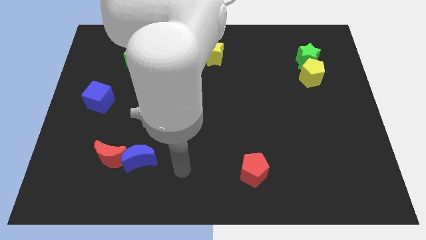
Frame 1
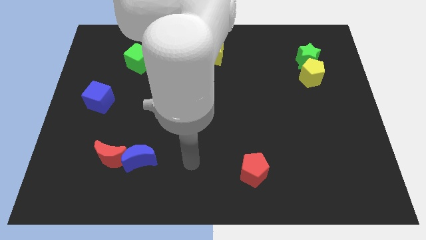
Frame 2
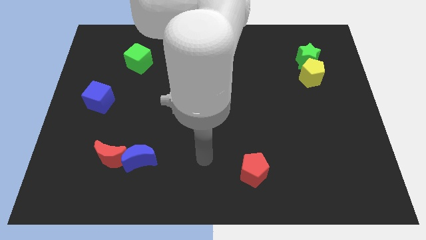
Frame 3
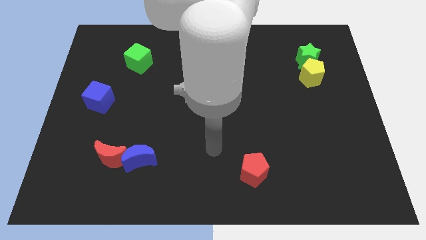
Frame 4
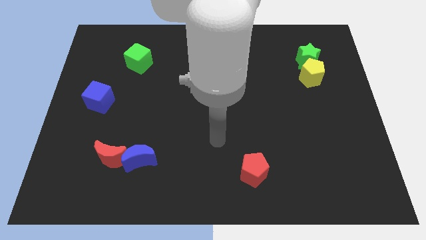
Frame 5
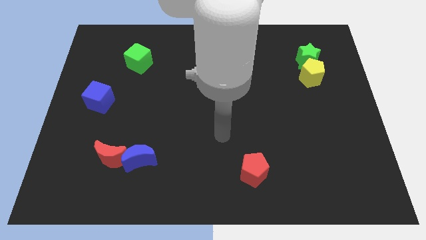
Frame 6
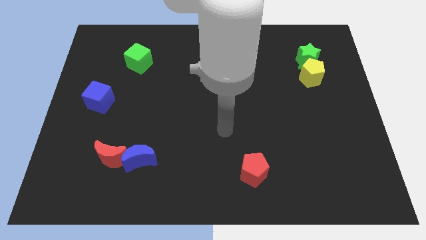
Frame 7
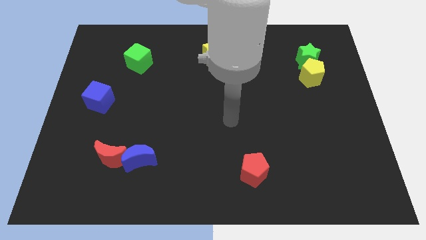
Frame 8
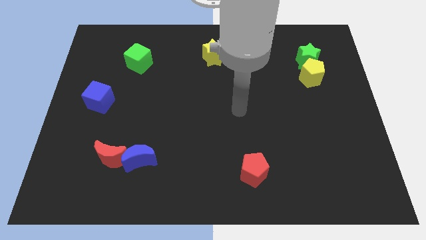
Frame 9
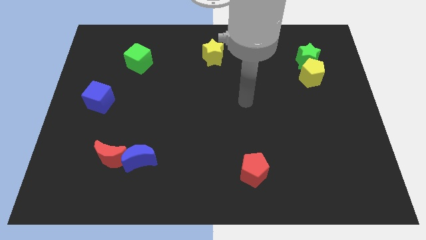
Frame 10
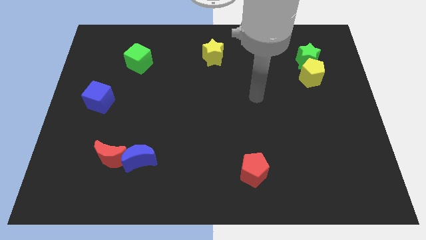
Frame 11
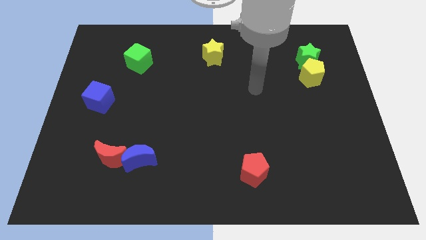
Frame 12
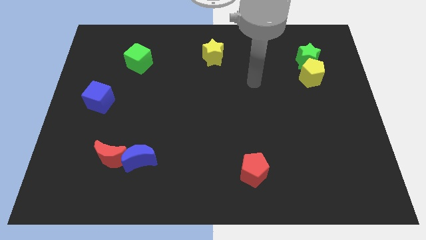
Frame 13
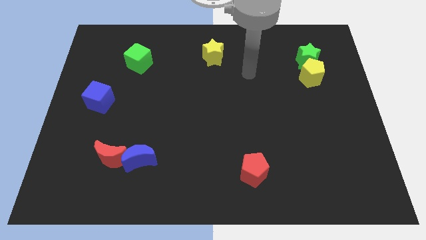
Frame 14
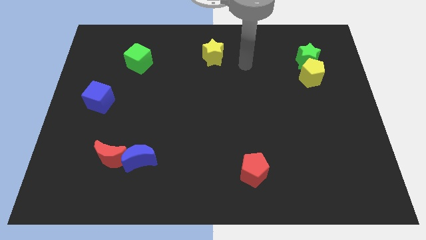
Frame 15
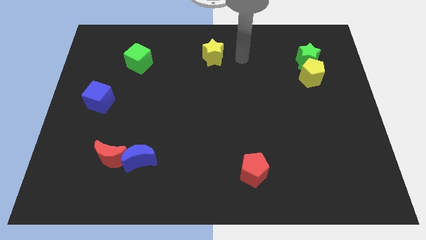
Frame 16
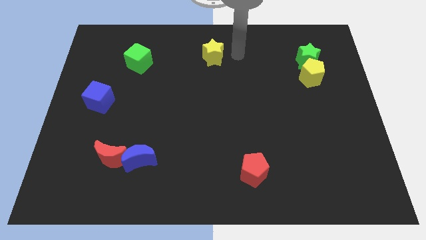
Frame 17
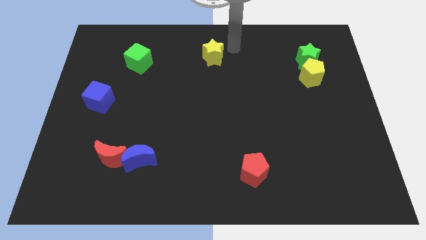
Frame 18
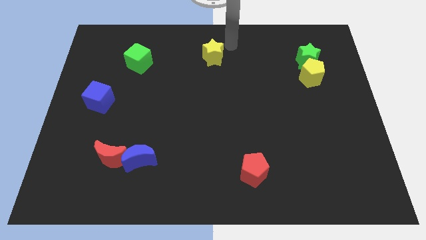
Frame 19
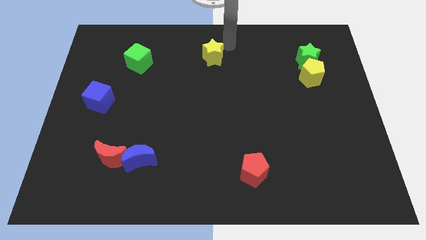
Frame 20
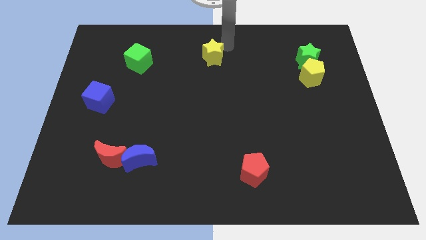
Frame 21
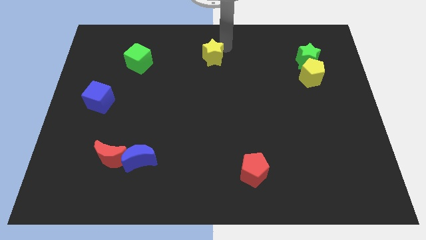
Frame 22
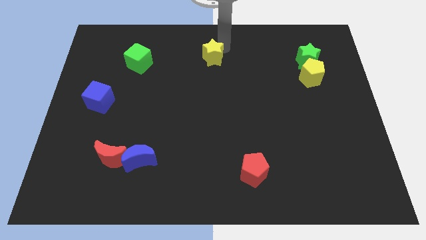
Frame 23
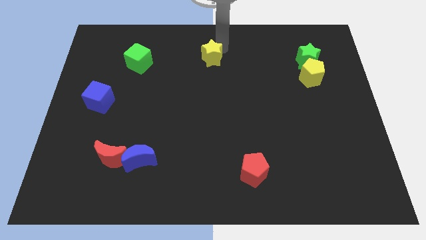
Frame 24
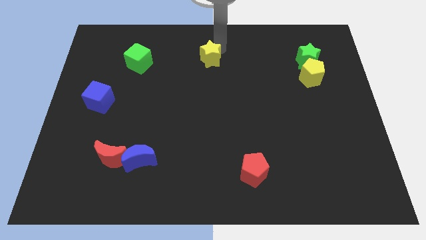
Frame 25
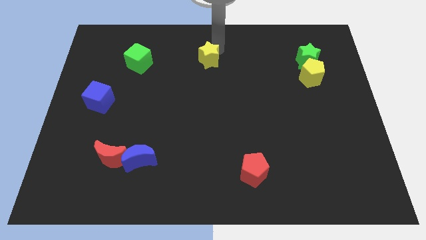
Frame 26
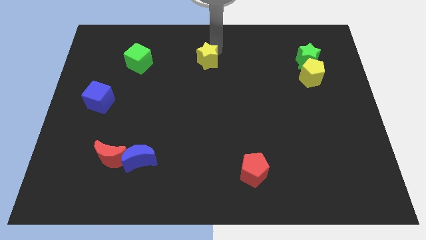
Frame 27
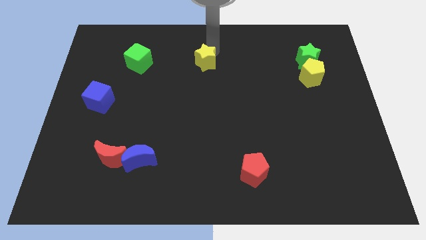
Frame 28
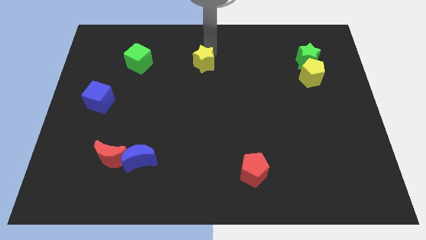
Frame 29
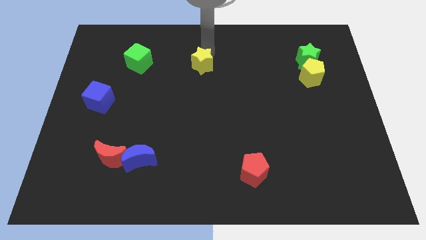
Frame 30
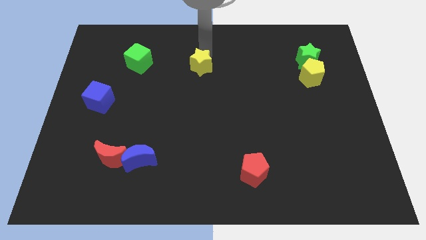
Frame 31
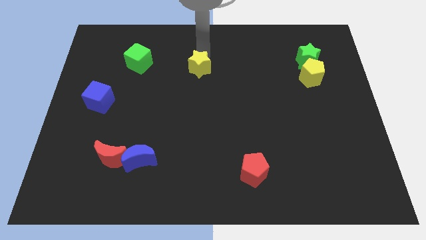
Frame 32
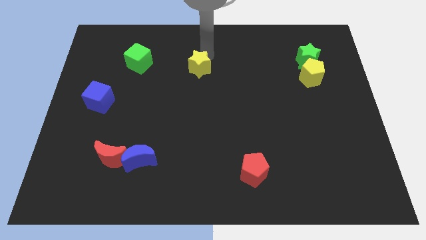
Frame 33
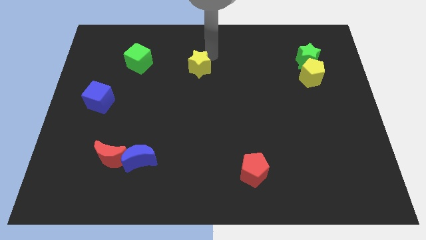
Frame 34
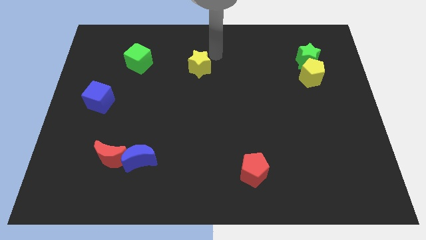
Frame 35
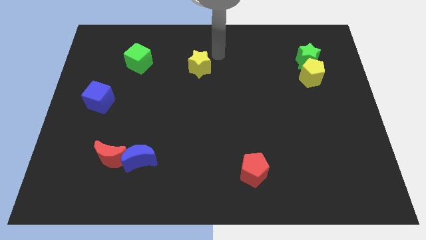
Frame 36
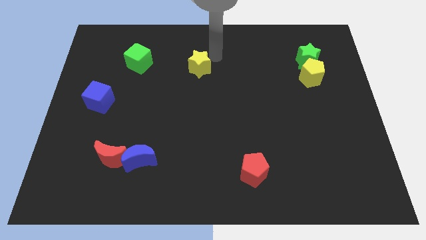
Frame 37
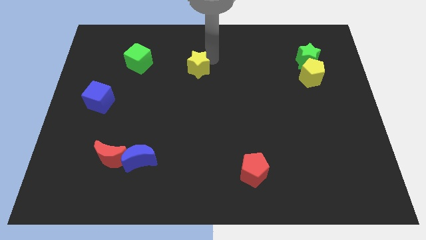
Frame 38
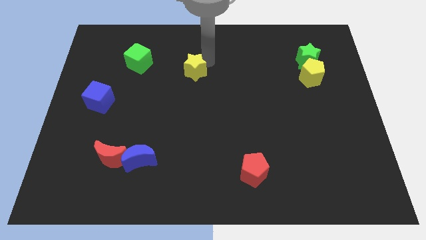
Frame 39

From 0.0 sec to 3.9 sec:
push the yellow star a little bit down and then left

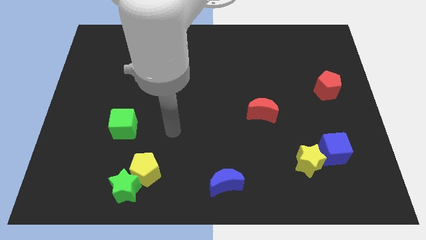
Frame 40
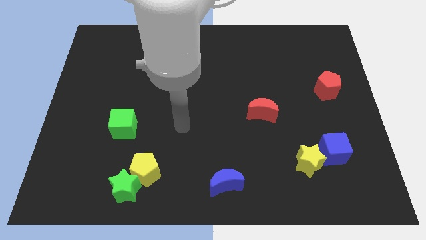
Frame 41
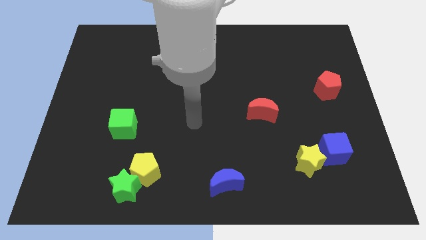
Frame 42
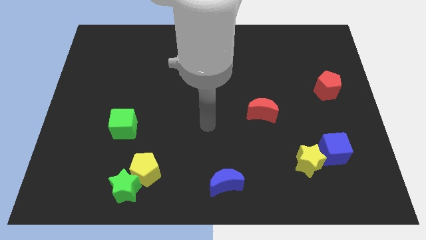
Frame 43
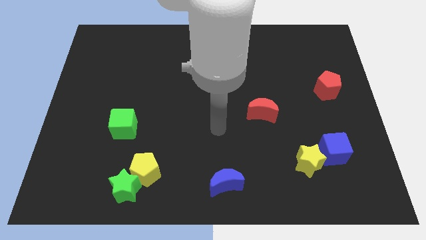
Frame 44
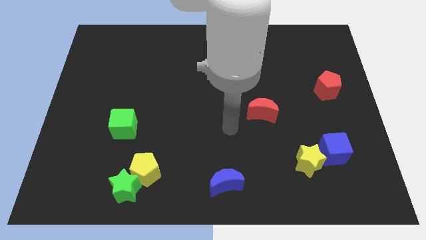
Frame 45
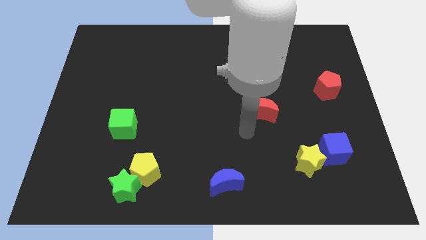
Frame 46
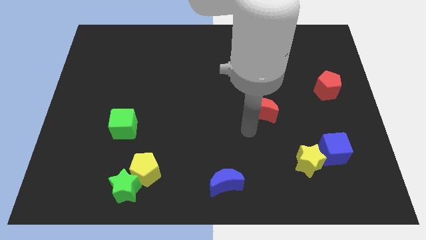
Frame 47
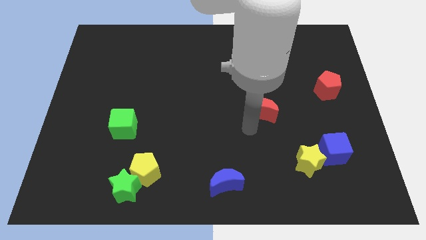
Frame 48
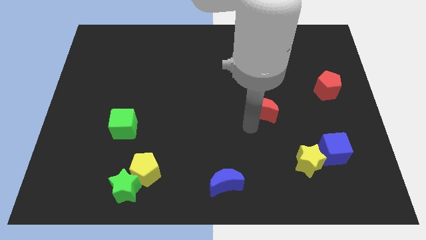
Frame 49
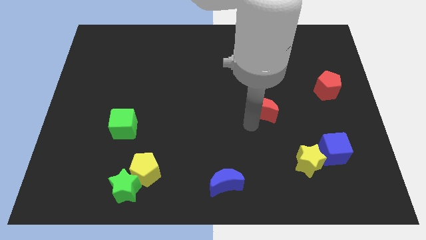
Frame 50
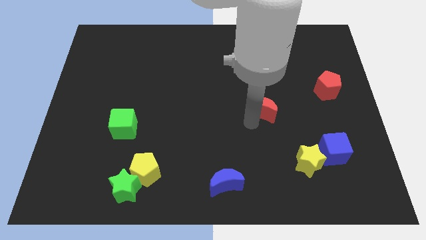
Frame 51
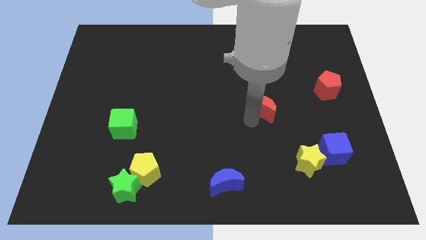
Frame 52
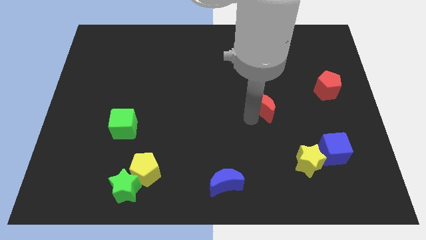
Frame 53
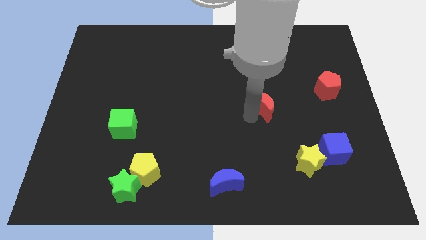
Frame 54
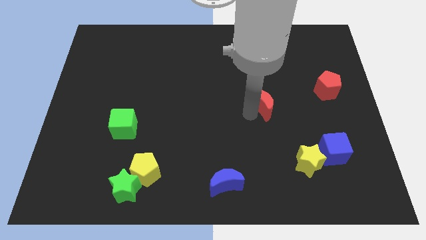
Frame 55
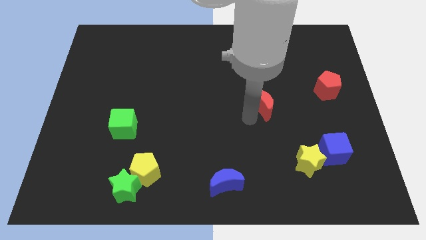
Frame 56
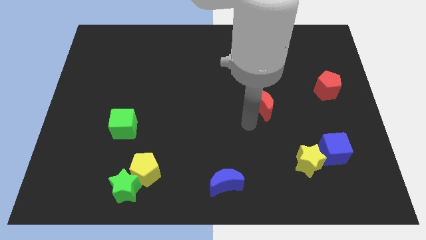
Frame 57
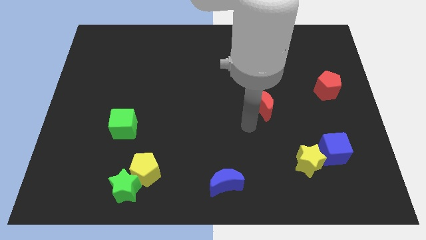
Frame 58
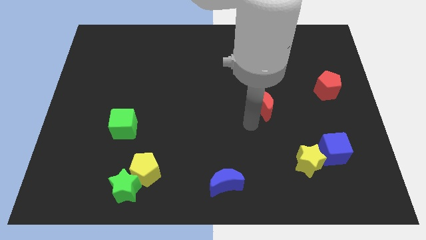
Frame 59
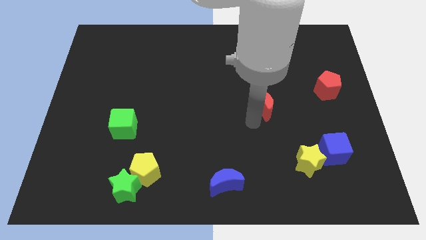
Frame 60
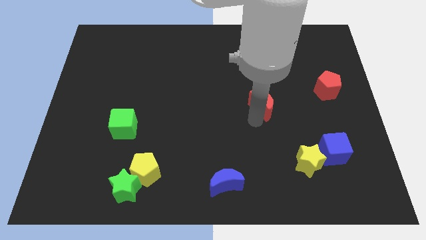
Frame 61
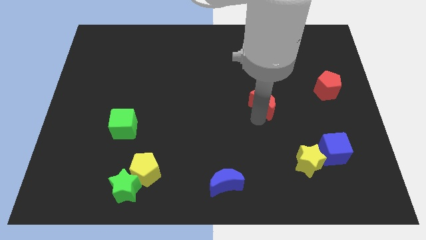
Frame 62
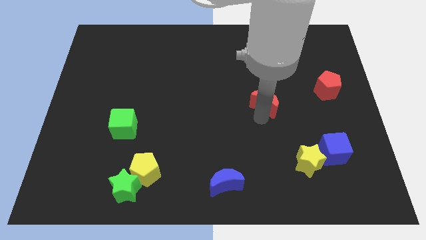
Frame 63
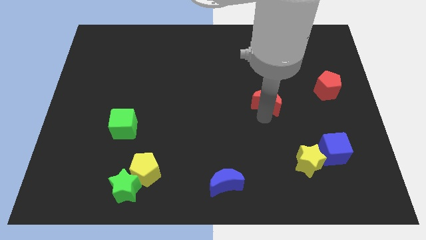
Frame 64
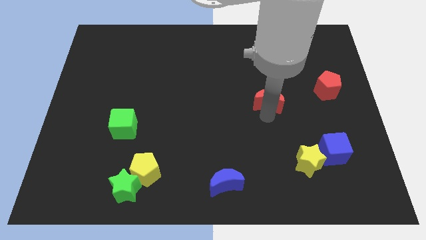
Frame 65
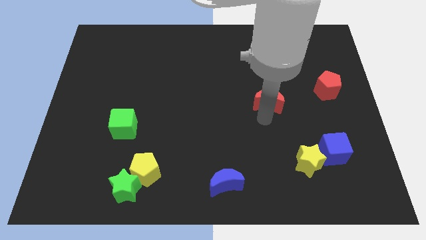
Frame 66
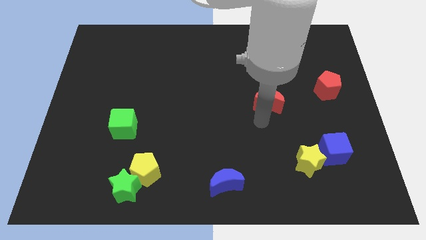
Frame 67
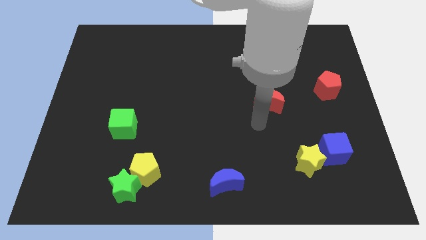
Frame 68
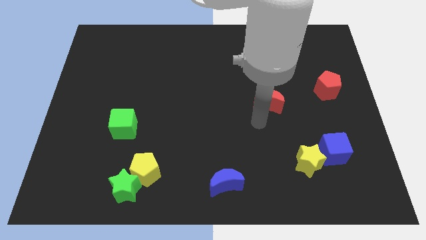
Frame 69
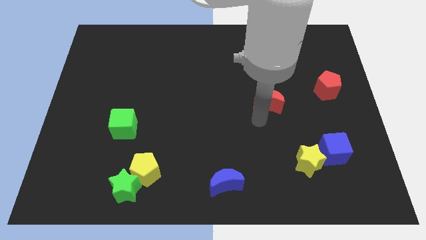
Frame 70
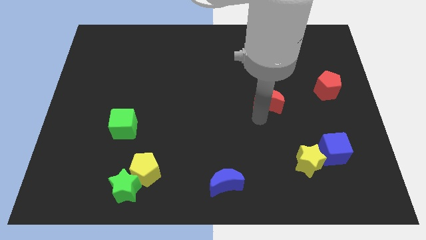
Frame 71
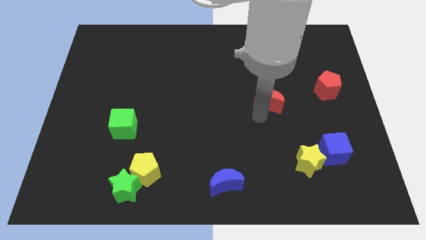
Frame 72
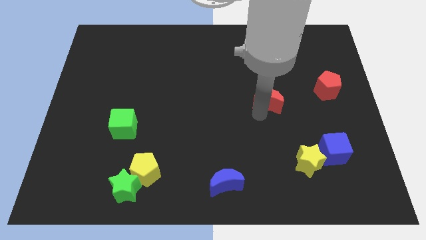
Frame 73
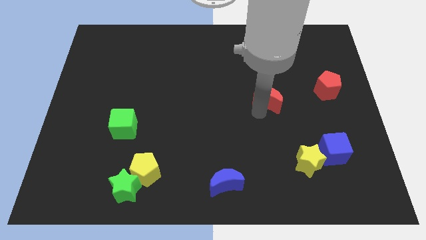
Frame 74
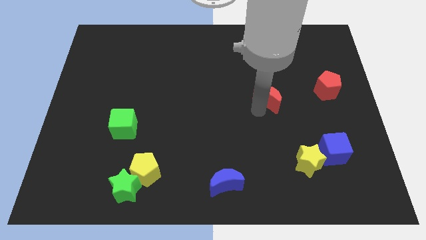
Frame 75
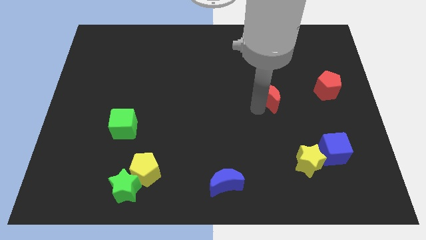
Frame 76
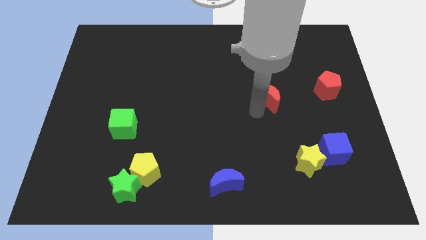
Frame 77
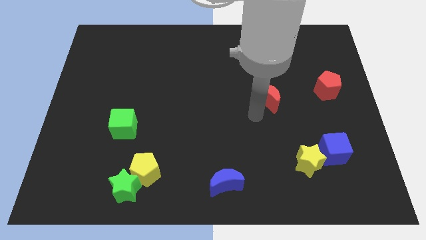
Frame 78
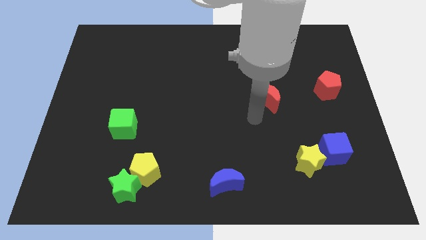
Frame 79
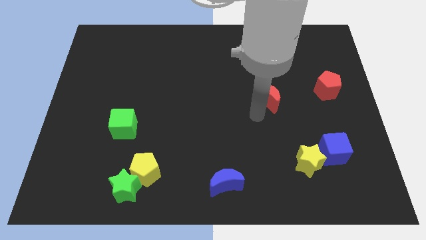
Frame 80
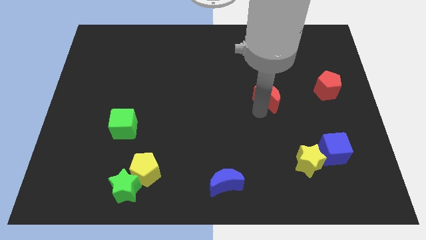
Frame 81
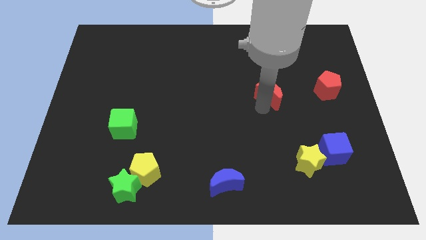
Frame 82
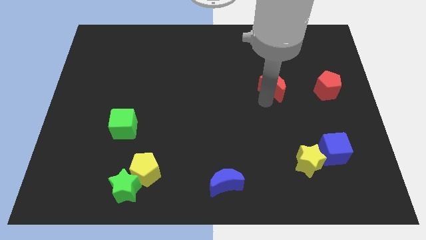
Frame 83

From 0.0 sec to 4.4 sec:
slide the red moon up and right a little
